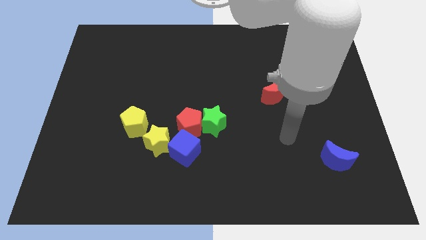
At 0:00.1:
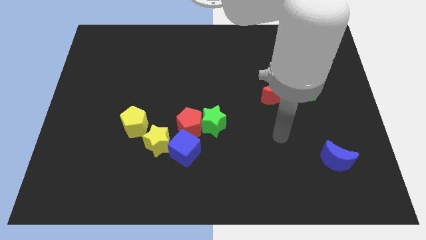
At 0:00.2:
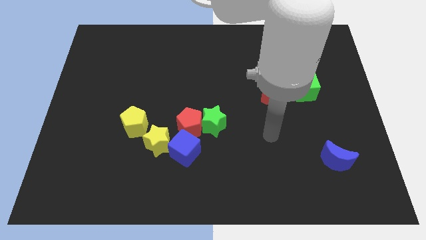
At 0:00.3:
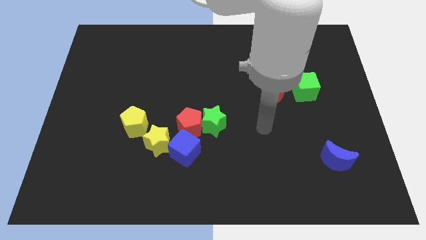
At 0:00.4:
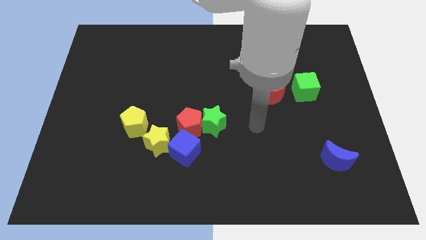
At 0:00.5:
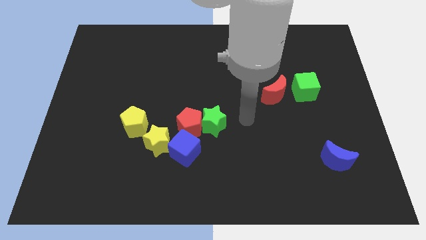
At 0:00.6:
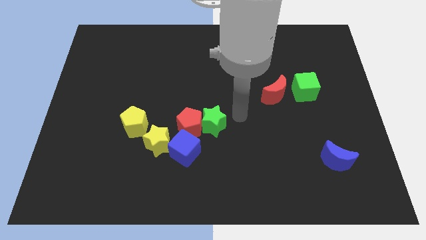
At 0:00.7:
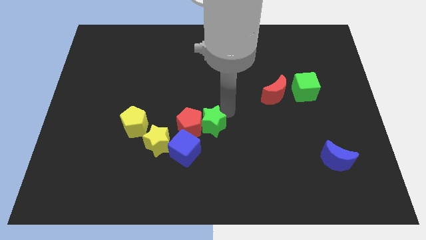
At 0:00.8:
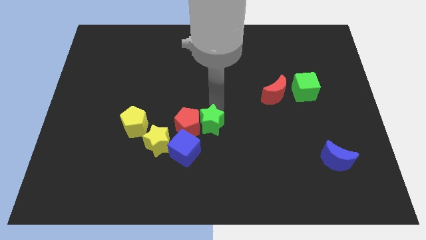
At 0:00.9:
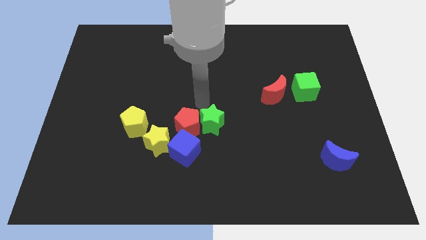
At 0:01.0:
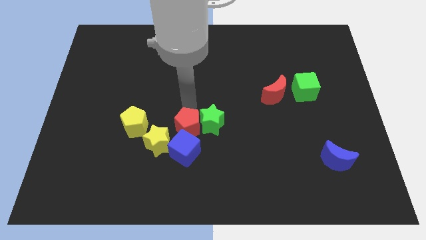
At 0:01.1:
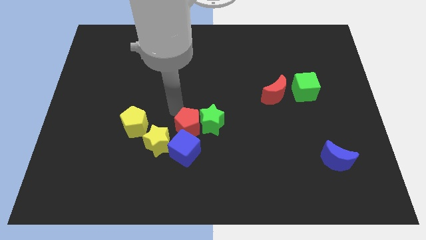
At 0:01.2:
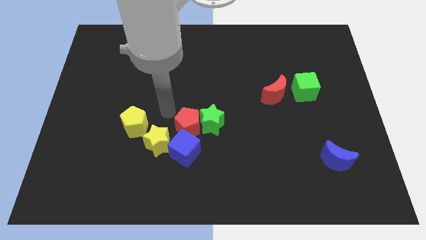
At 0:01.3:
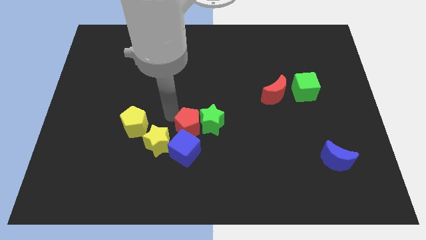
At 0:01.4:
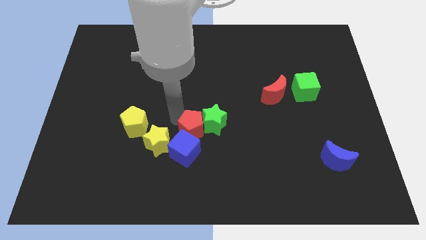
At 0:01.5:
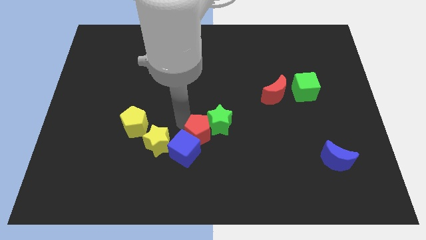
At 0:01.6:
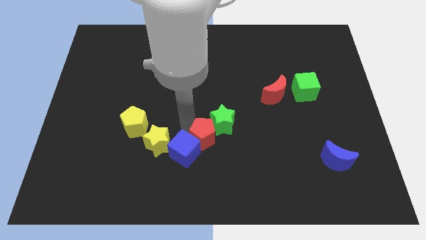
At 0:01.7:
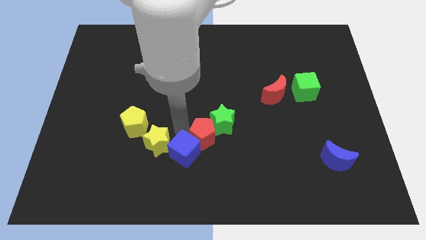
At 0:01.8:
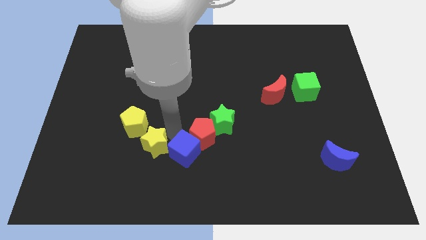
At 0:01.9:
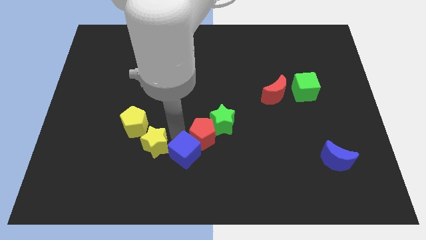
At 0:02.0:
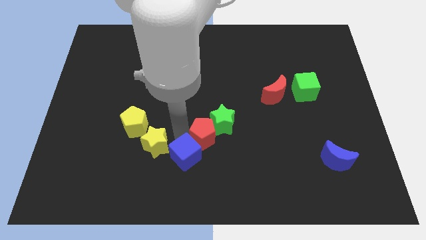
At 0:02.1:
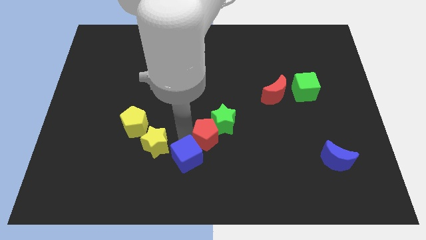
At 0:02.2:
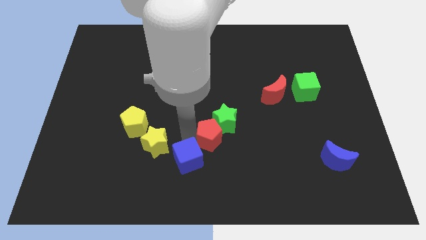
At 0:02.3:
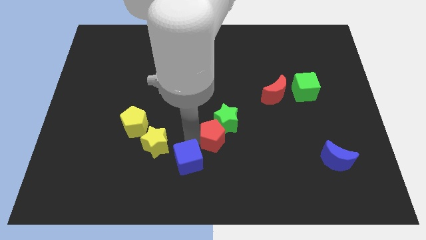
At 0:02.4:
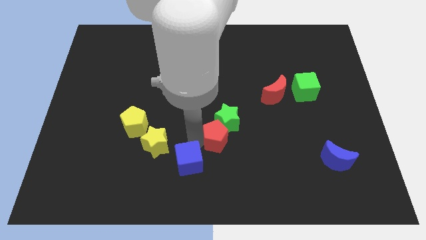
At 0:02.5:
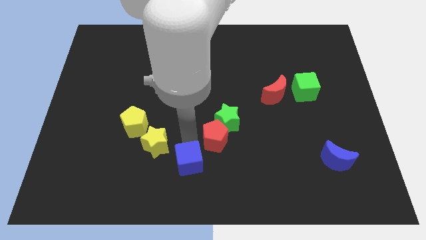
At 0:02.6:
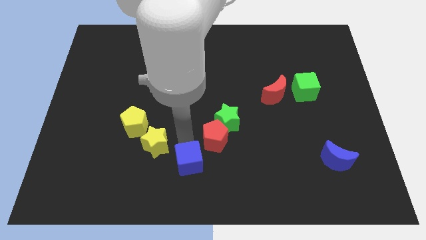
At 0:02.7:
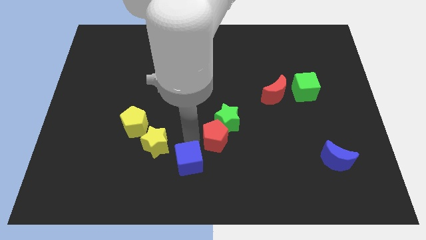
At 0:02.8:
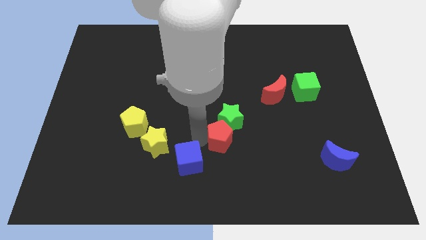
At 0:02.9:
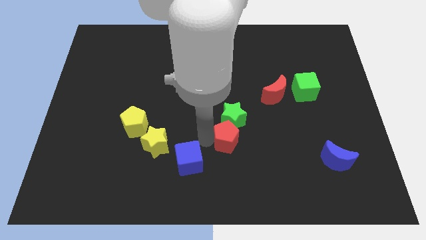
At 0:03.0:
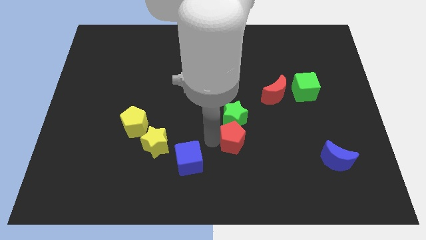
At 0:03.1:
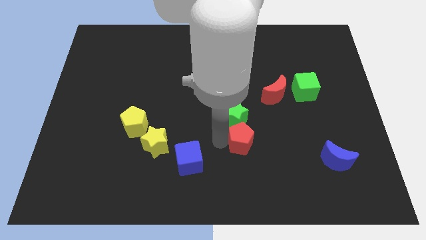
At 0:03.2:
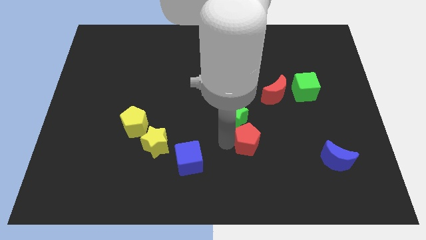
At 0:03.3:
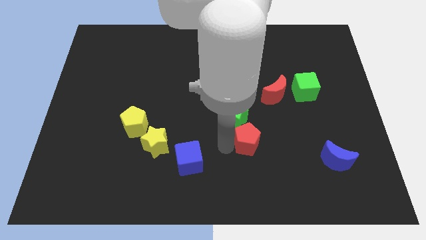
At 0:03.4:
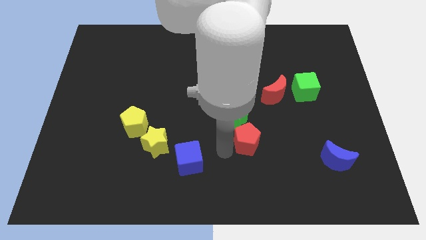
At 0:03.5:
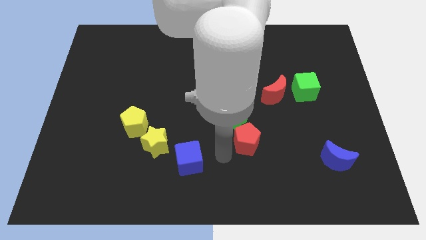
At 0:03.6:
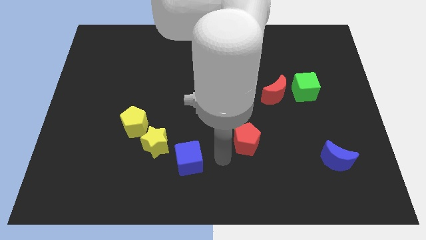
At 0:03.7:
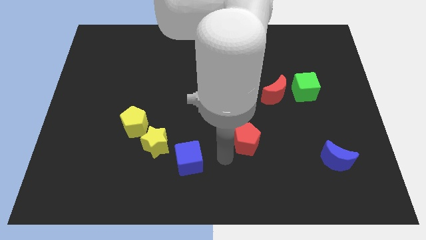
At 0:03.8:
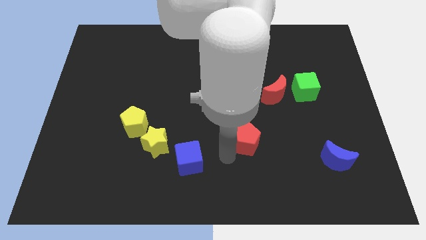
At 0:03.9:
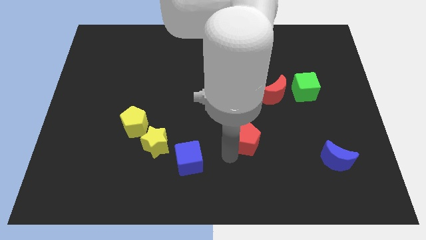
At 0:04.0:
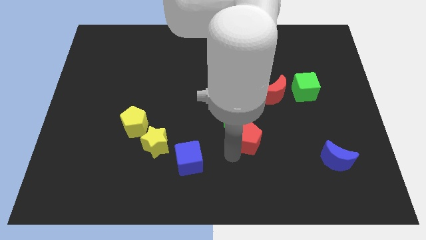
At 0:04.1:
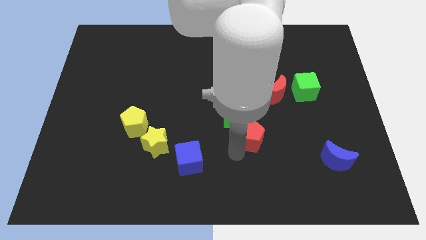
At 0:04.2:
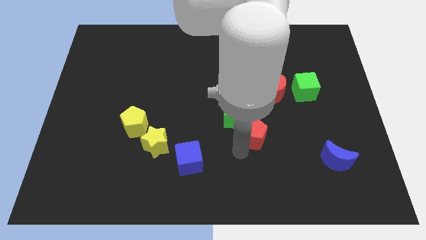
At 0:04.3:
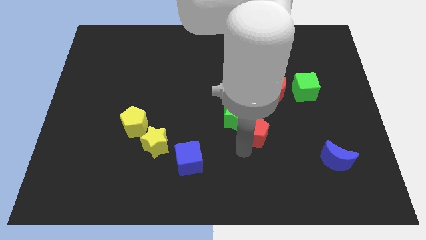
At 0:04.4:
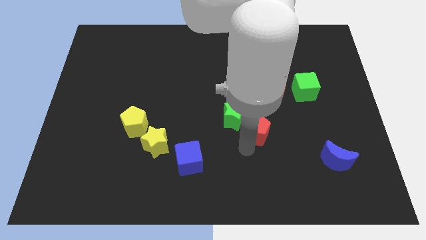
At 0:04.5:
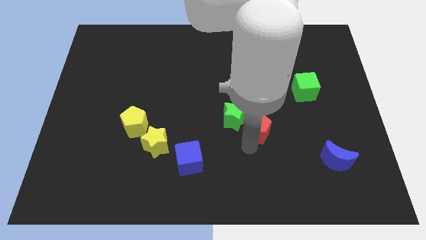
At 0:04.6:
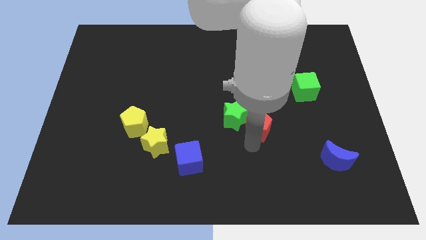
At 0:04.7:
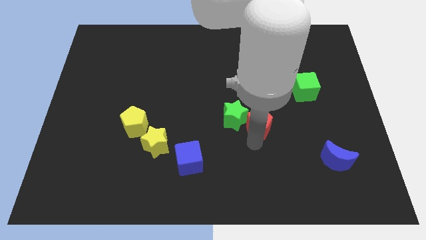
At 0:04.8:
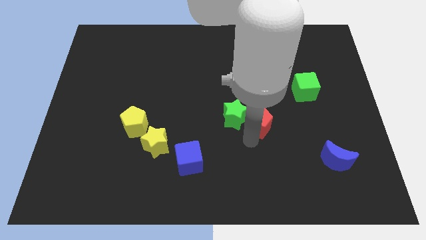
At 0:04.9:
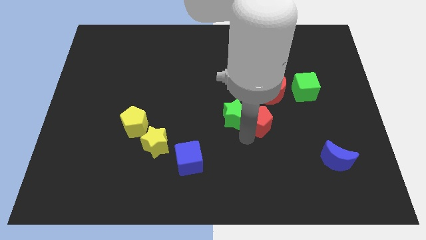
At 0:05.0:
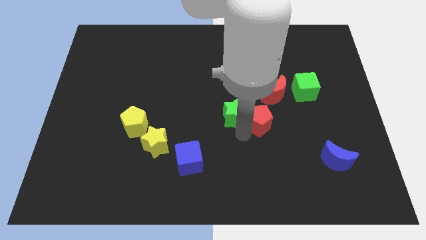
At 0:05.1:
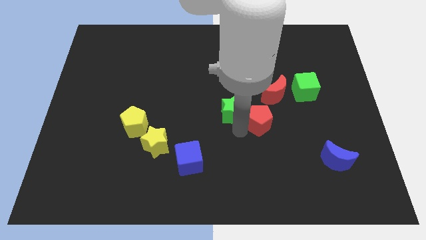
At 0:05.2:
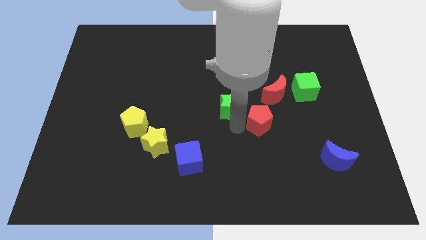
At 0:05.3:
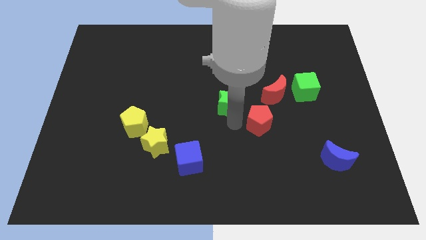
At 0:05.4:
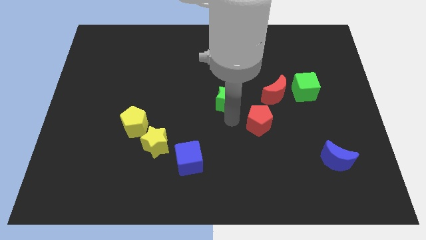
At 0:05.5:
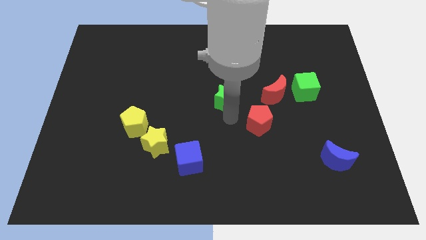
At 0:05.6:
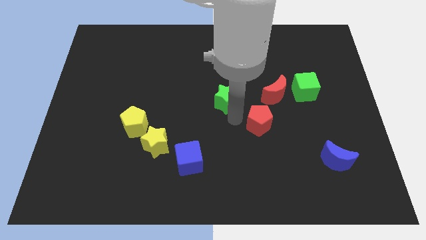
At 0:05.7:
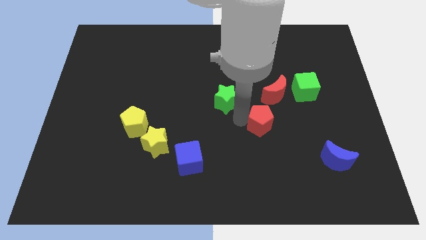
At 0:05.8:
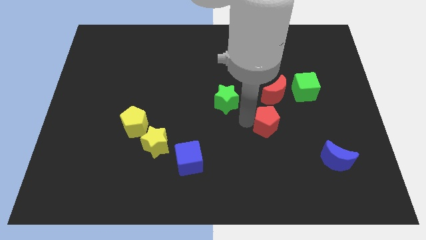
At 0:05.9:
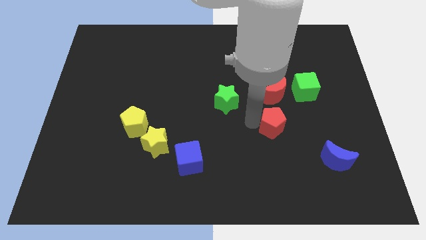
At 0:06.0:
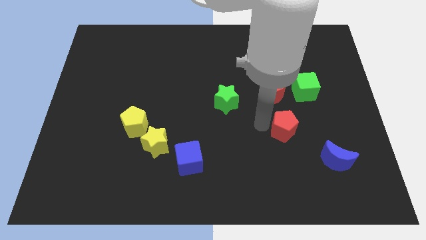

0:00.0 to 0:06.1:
slide the red pentagon right

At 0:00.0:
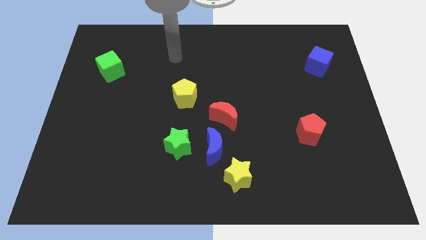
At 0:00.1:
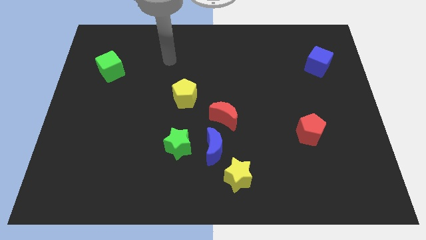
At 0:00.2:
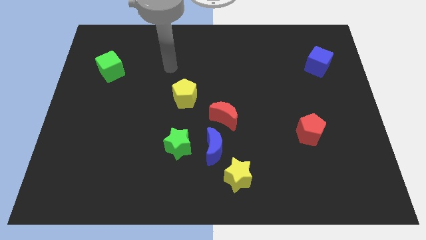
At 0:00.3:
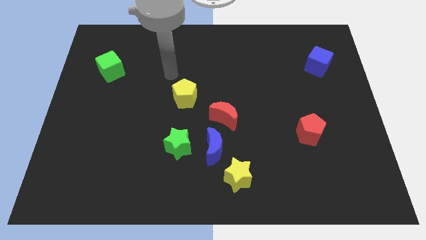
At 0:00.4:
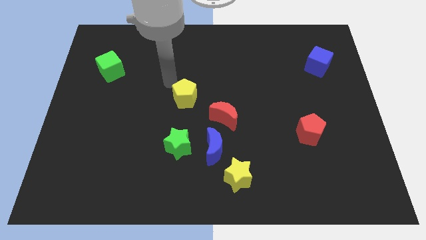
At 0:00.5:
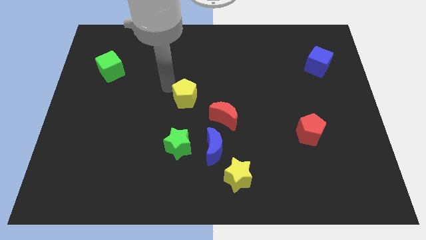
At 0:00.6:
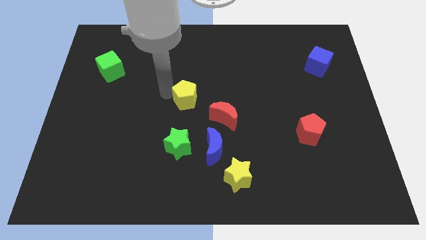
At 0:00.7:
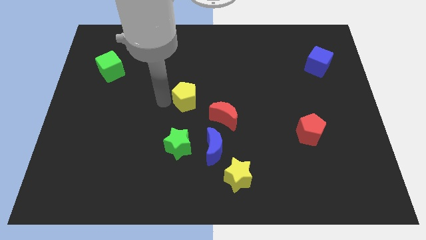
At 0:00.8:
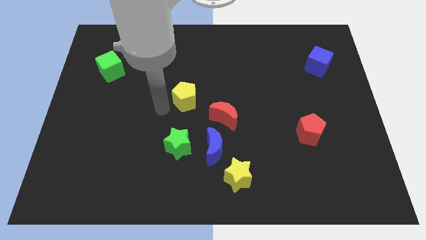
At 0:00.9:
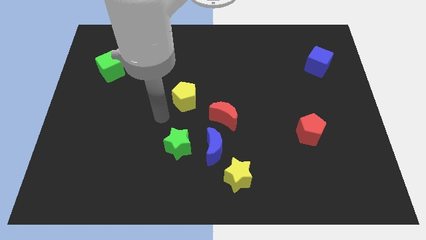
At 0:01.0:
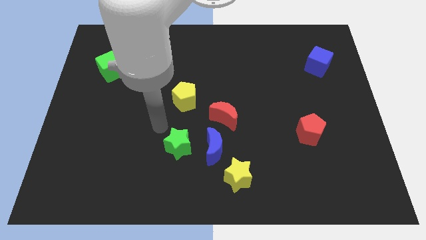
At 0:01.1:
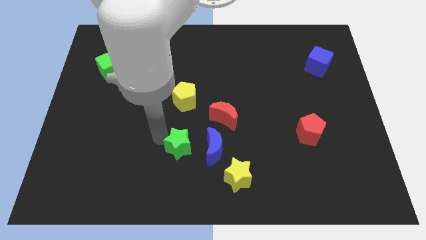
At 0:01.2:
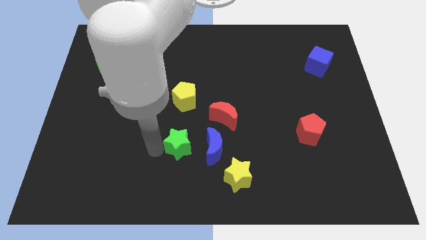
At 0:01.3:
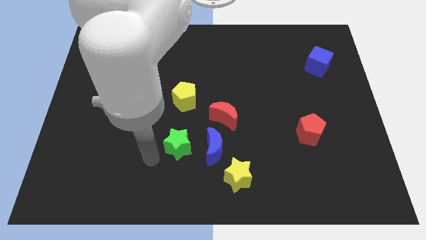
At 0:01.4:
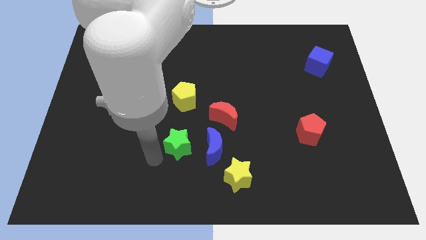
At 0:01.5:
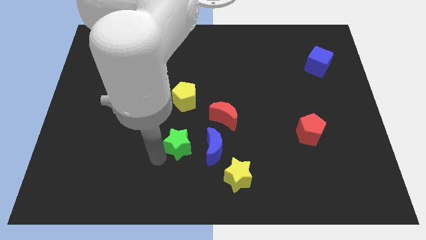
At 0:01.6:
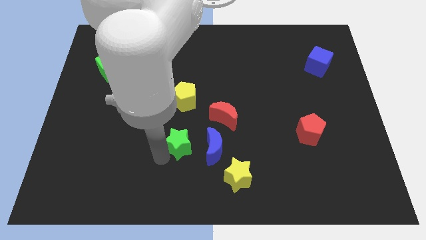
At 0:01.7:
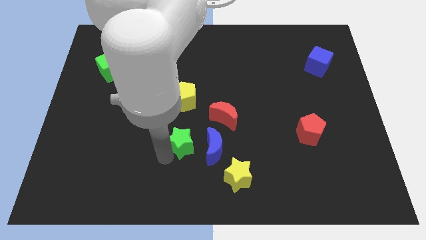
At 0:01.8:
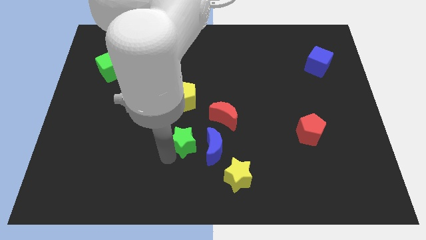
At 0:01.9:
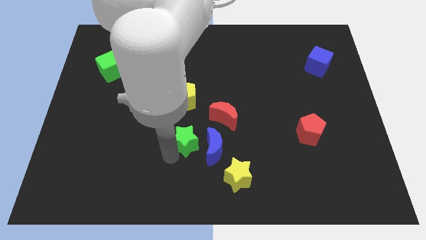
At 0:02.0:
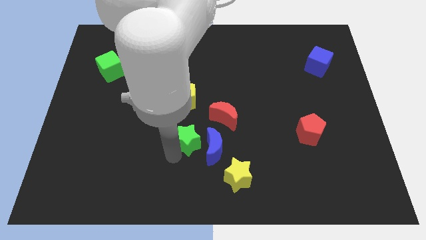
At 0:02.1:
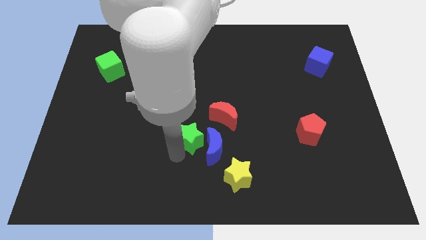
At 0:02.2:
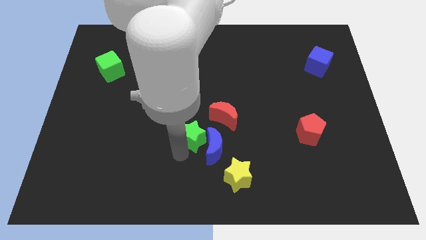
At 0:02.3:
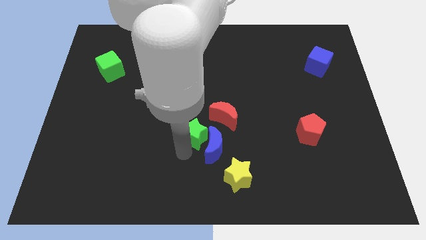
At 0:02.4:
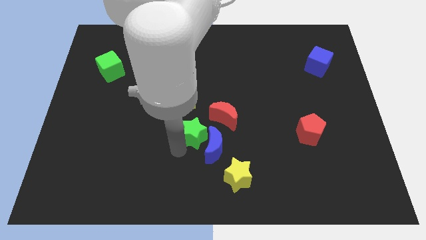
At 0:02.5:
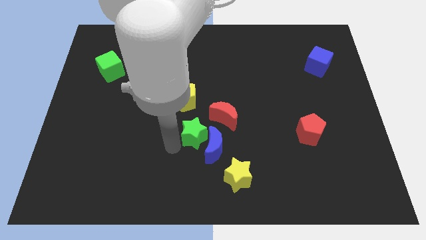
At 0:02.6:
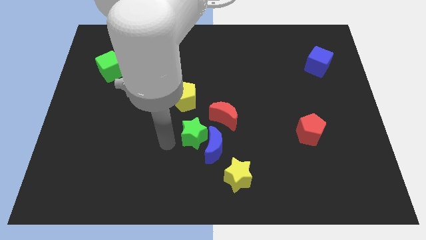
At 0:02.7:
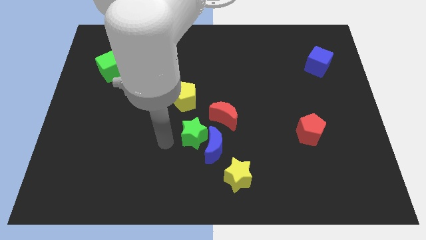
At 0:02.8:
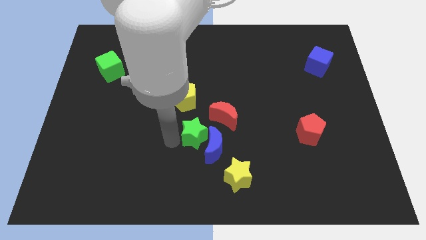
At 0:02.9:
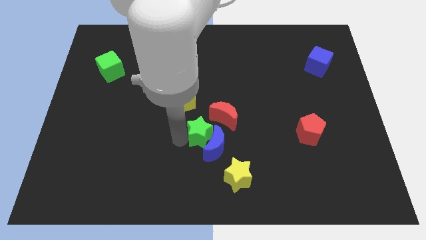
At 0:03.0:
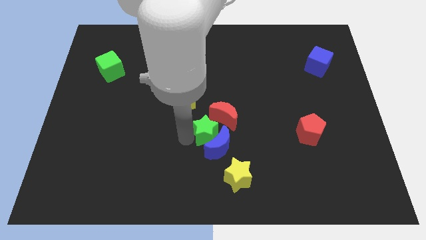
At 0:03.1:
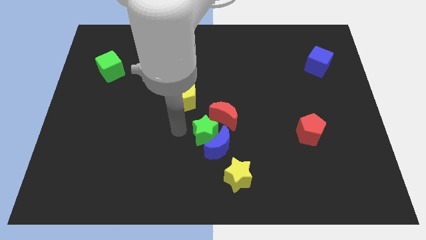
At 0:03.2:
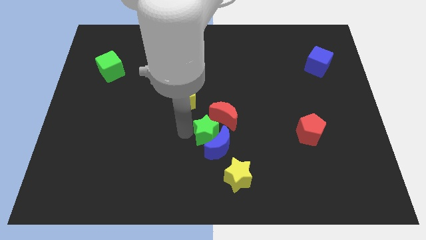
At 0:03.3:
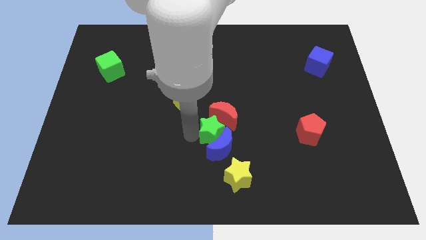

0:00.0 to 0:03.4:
slightly push the green star right
